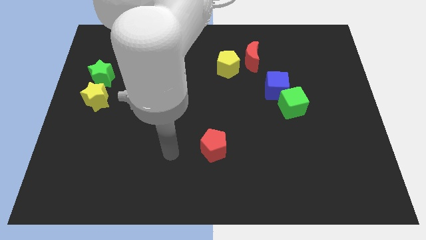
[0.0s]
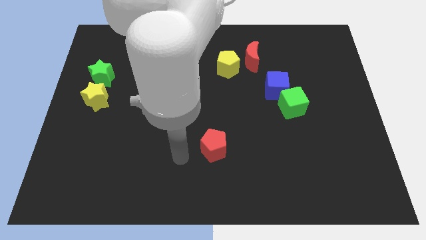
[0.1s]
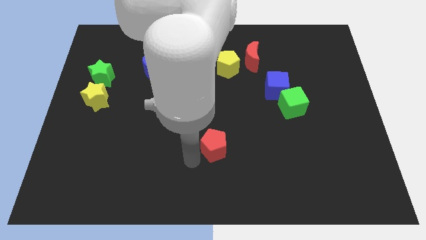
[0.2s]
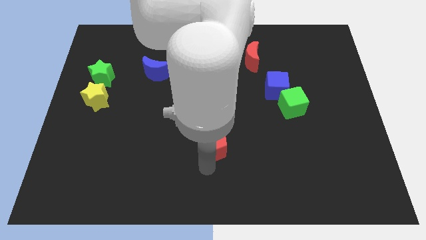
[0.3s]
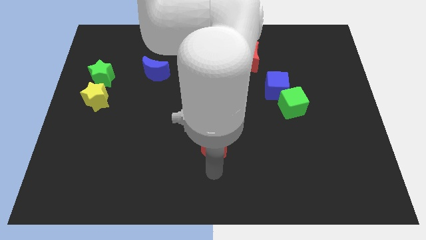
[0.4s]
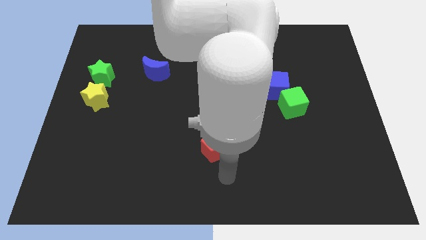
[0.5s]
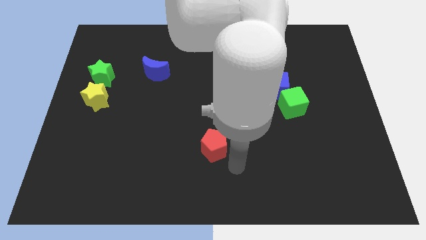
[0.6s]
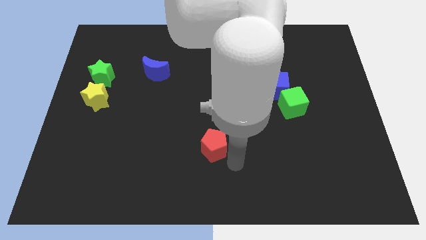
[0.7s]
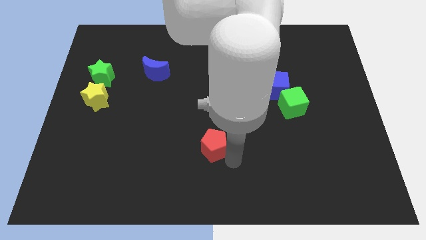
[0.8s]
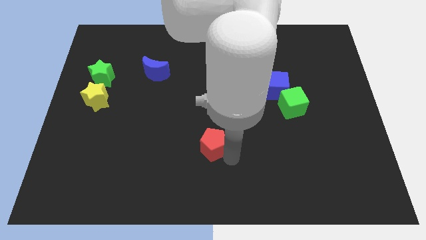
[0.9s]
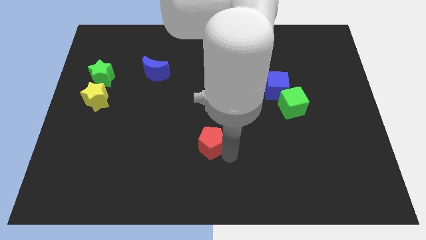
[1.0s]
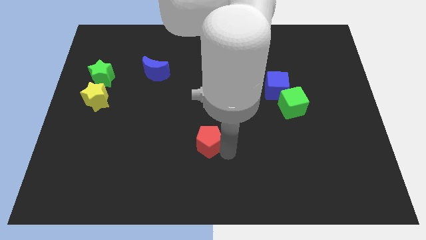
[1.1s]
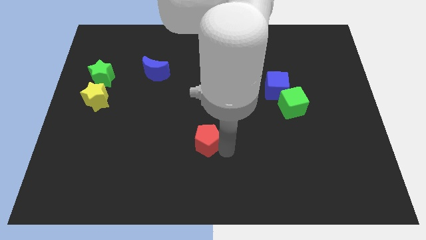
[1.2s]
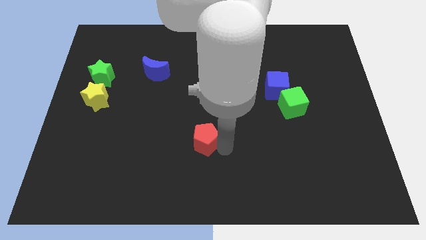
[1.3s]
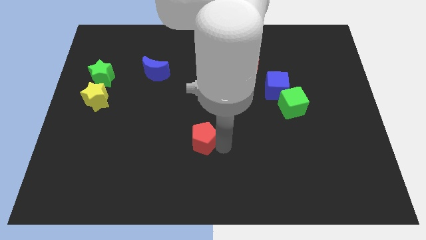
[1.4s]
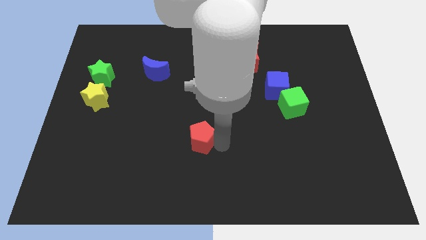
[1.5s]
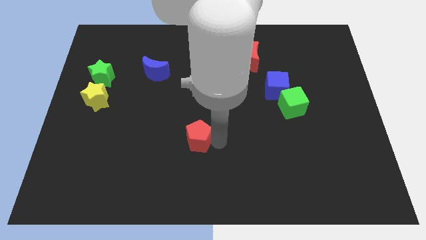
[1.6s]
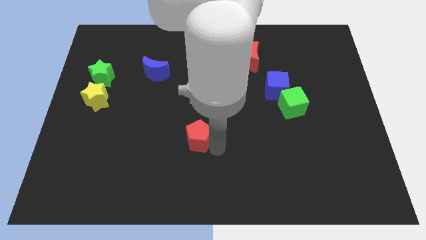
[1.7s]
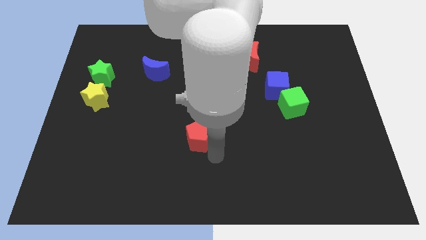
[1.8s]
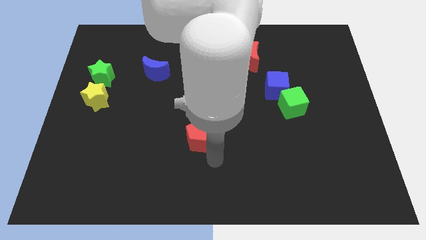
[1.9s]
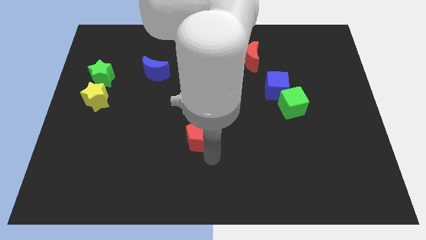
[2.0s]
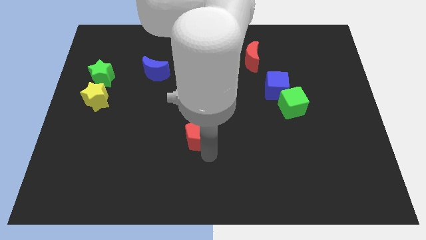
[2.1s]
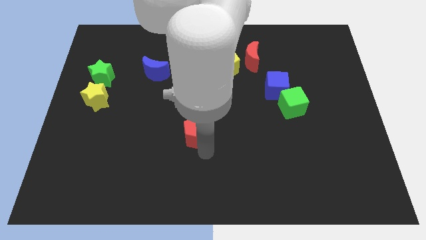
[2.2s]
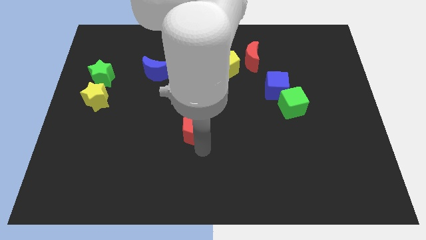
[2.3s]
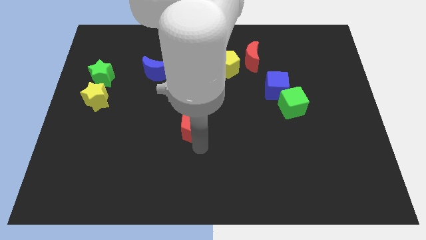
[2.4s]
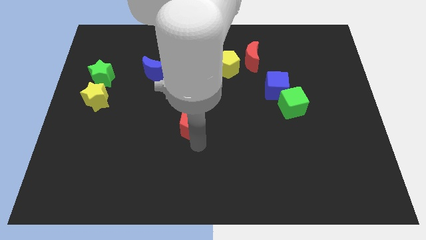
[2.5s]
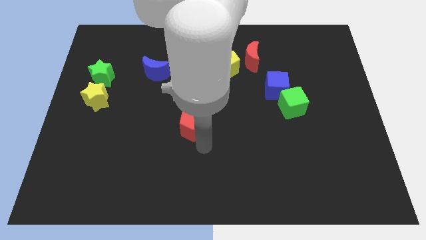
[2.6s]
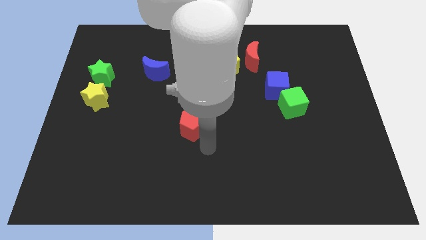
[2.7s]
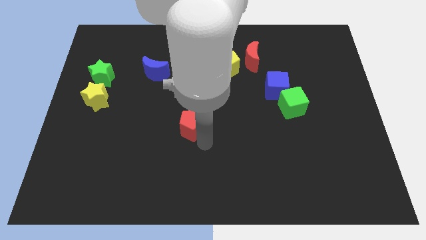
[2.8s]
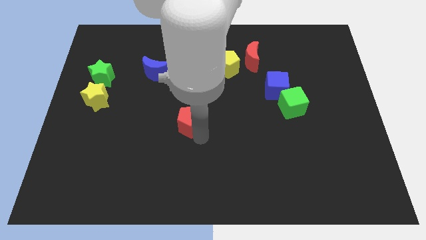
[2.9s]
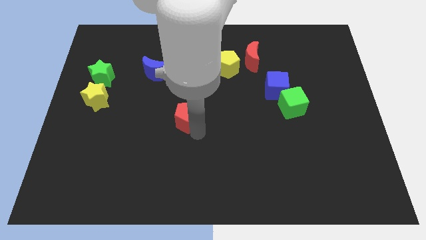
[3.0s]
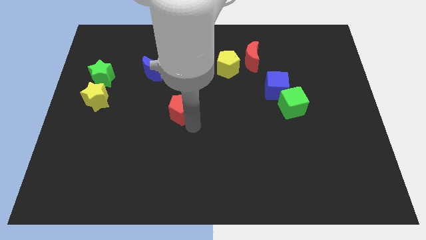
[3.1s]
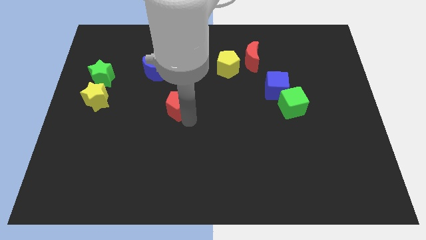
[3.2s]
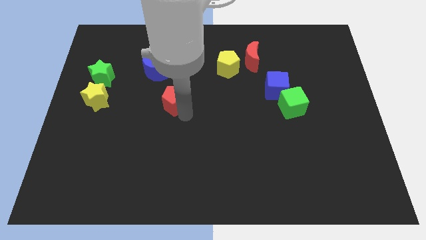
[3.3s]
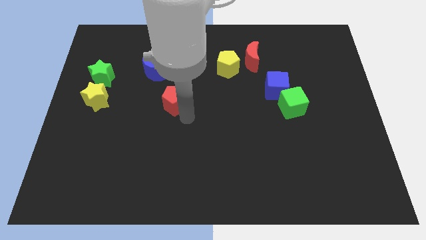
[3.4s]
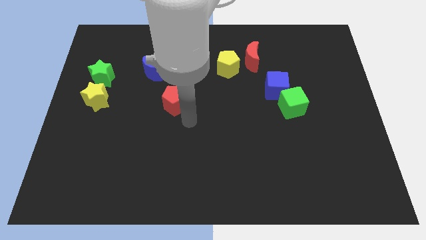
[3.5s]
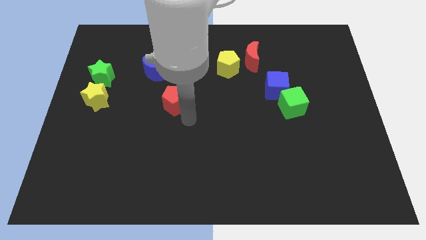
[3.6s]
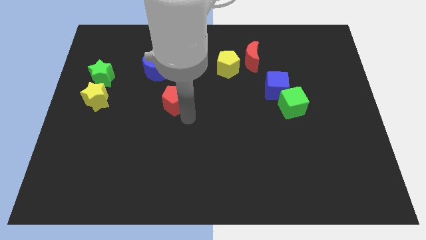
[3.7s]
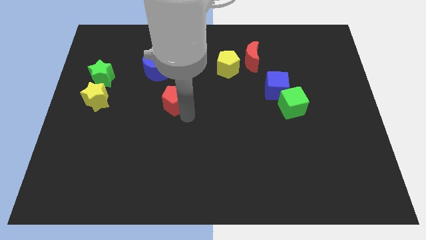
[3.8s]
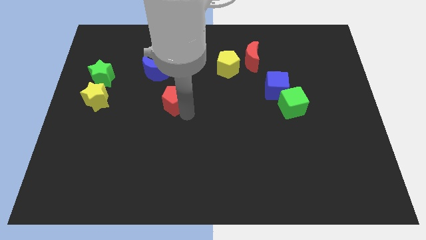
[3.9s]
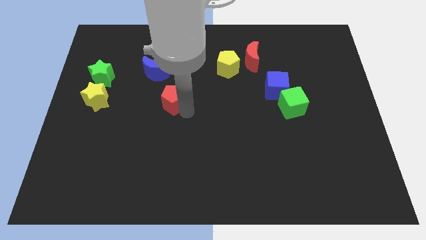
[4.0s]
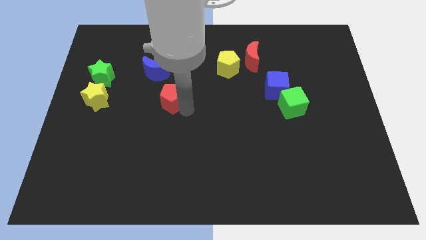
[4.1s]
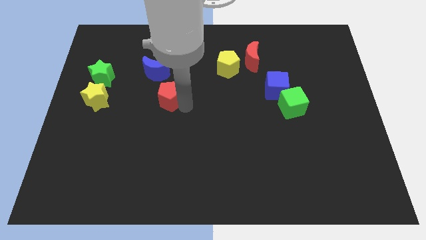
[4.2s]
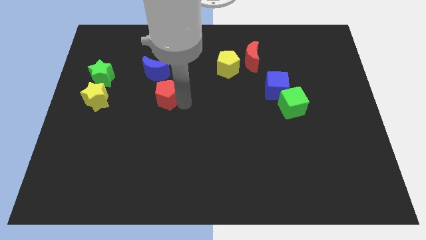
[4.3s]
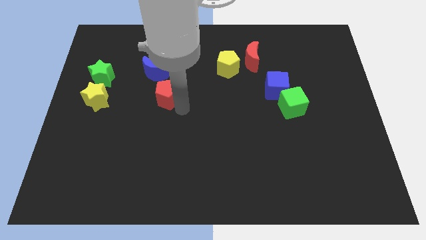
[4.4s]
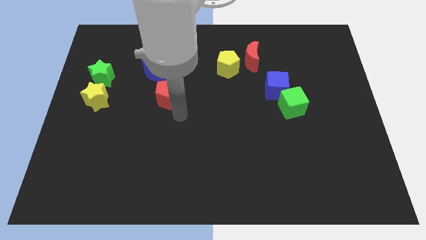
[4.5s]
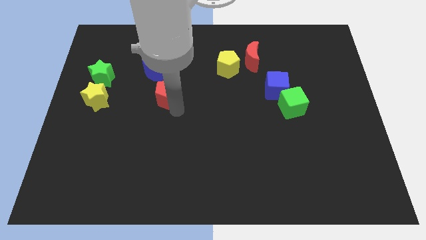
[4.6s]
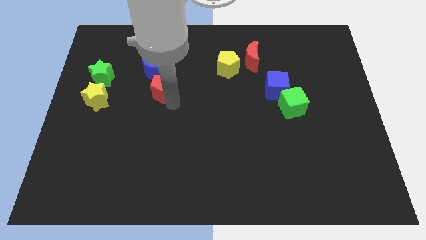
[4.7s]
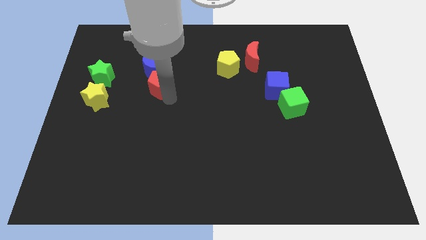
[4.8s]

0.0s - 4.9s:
put the red pentagon towards the blue moon

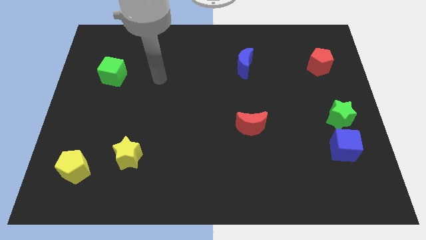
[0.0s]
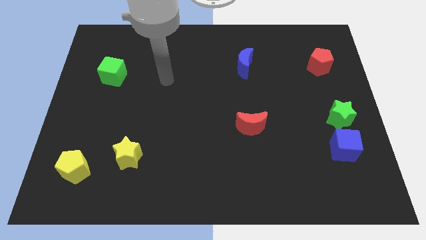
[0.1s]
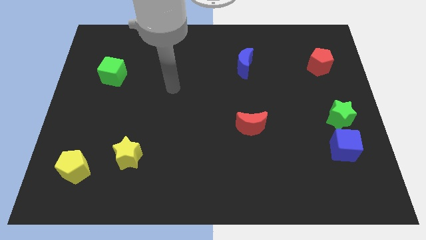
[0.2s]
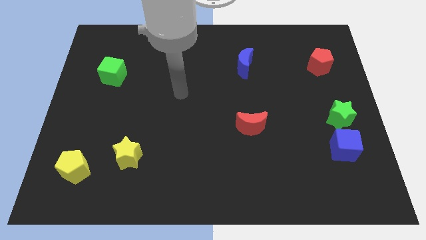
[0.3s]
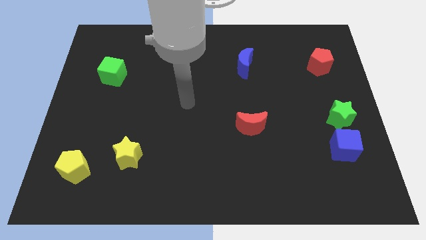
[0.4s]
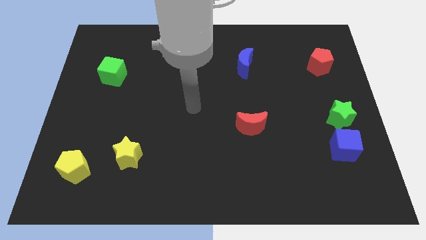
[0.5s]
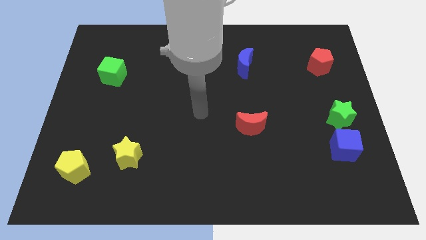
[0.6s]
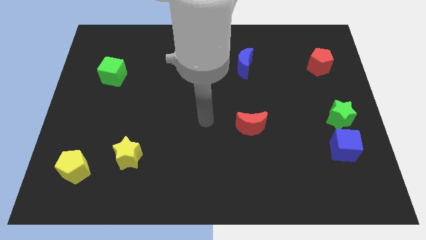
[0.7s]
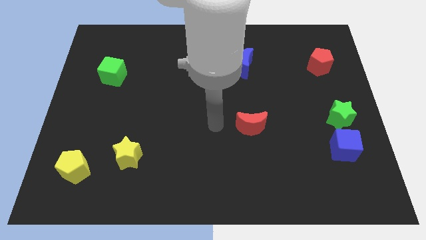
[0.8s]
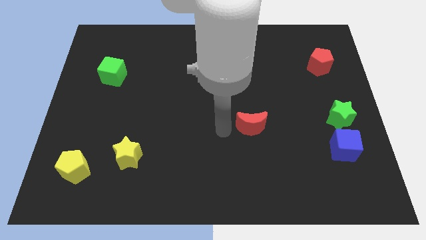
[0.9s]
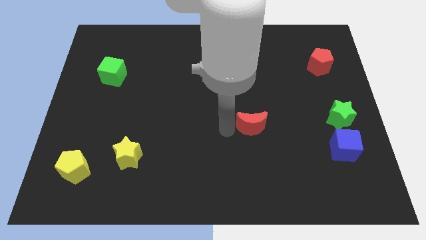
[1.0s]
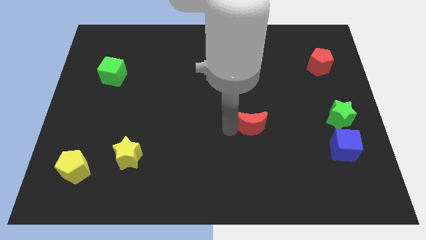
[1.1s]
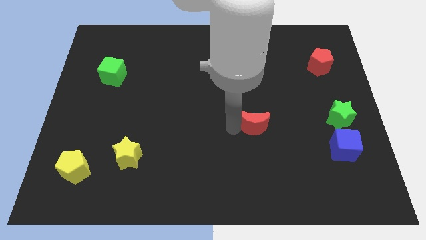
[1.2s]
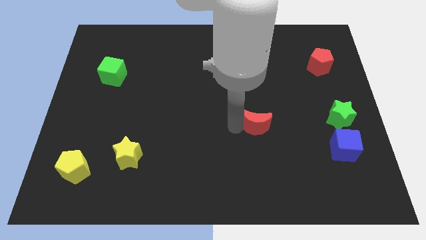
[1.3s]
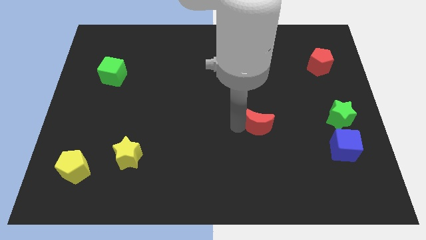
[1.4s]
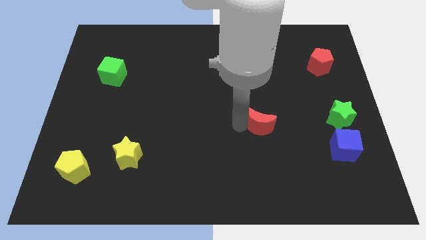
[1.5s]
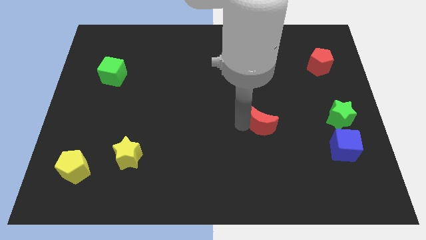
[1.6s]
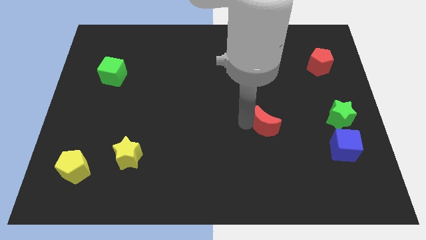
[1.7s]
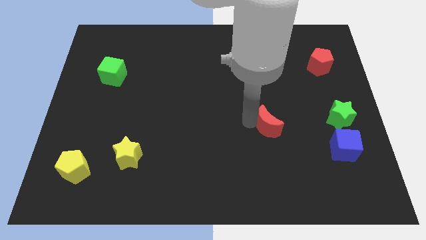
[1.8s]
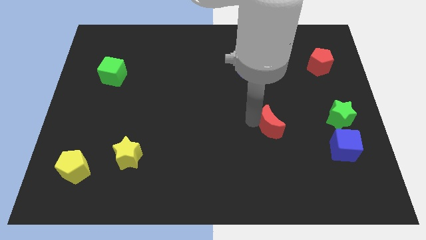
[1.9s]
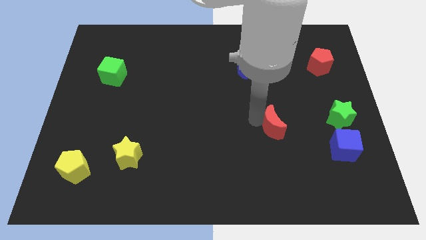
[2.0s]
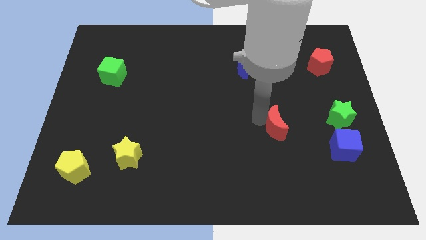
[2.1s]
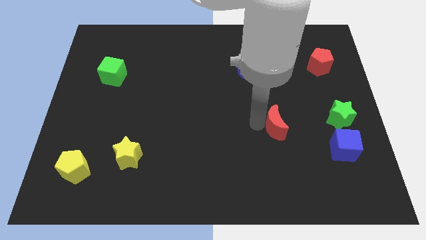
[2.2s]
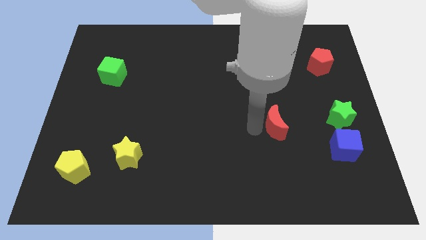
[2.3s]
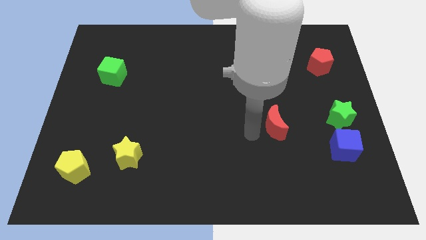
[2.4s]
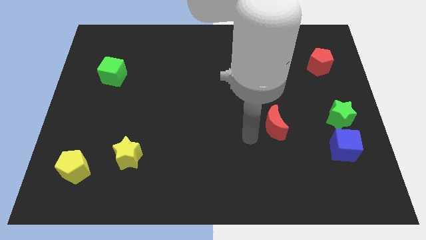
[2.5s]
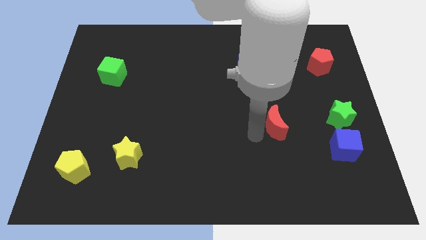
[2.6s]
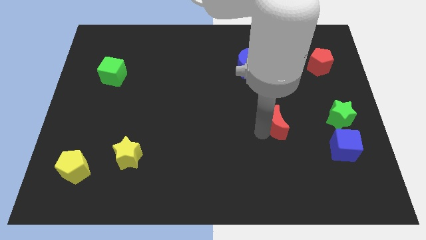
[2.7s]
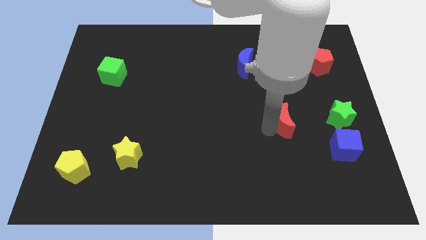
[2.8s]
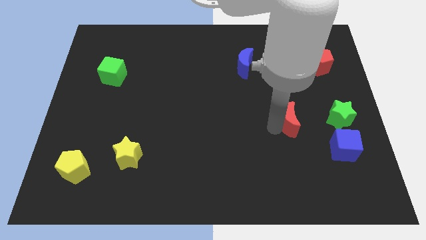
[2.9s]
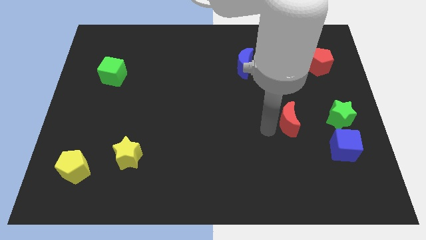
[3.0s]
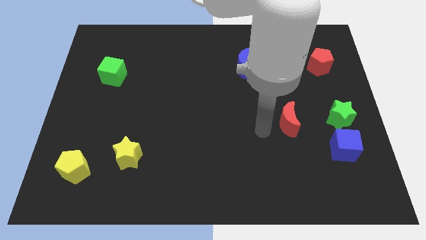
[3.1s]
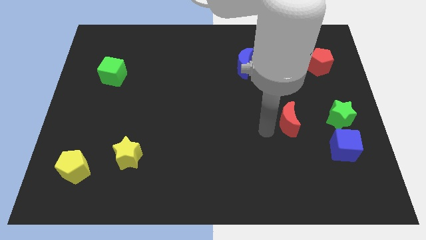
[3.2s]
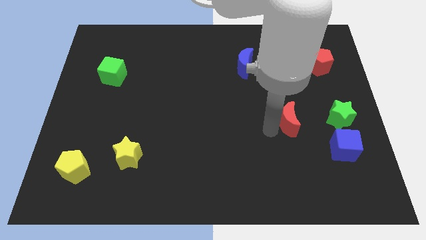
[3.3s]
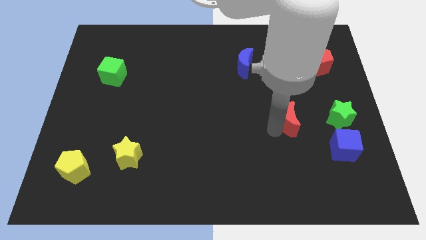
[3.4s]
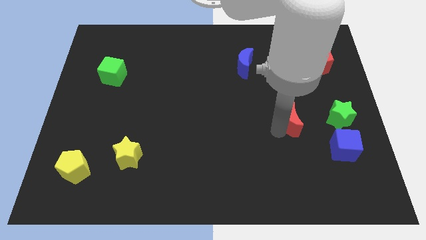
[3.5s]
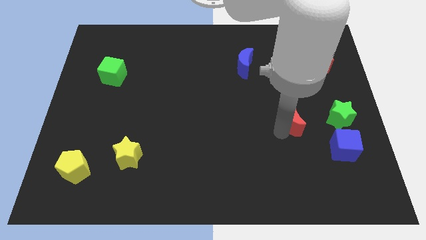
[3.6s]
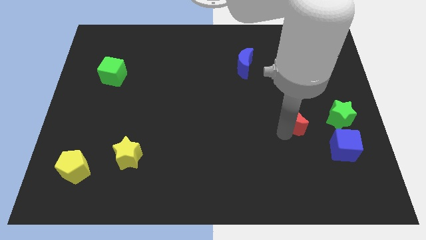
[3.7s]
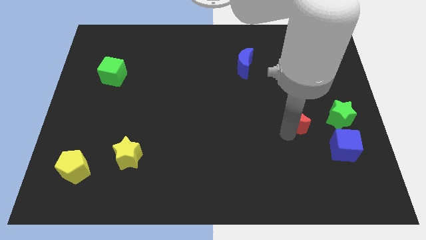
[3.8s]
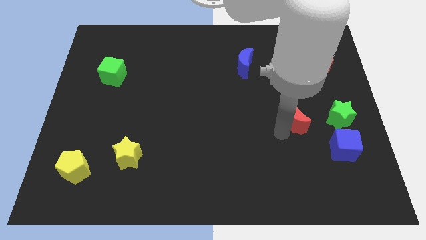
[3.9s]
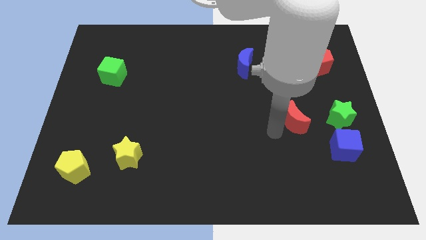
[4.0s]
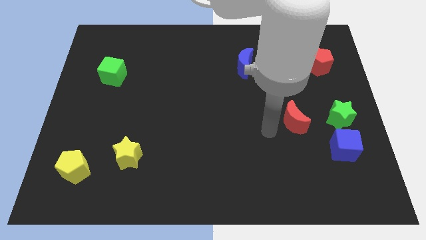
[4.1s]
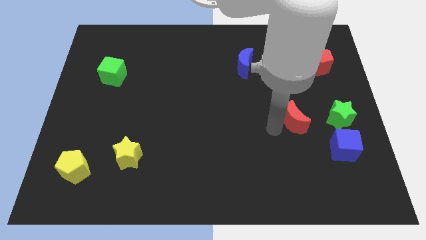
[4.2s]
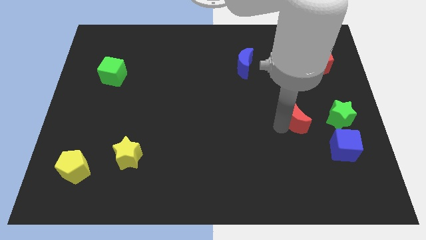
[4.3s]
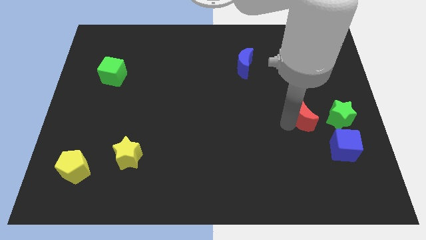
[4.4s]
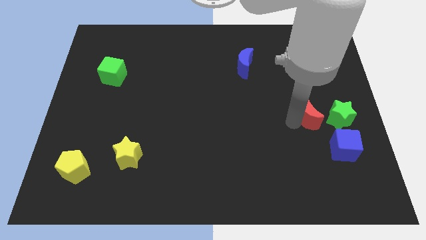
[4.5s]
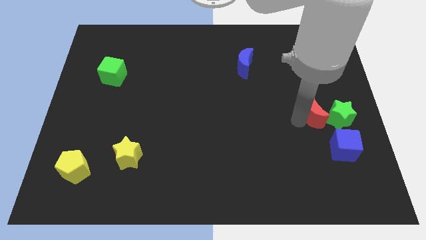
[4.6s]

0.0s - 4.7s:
put the red moon close to the green star
